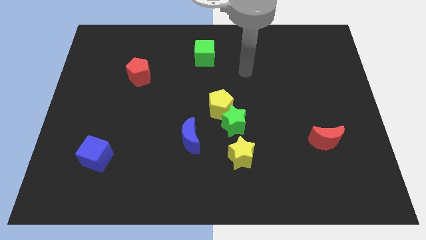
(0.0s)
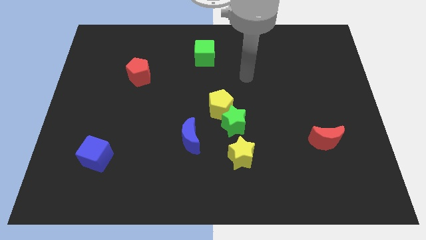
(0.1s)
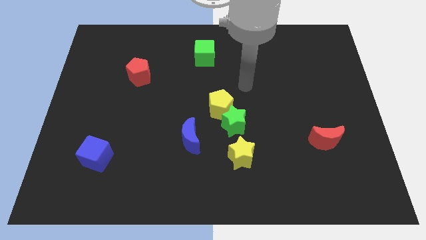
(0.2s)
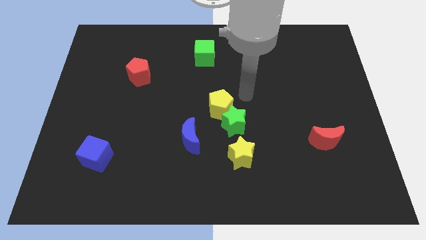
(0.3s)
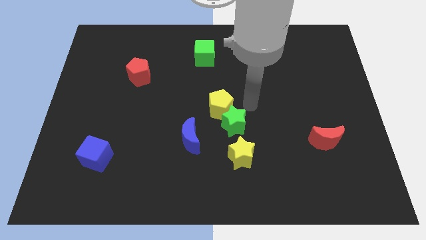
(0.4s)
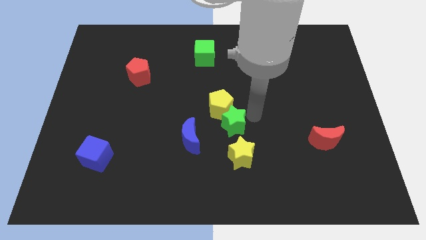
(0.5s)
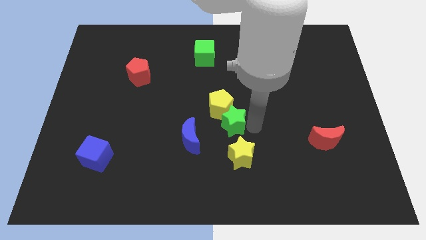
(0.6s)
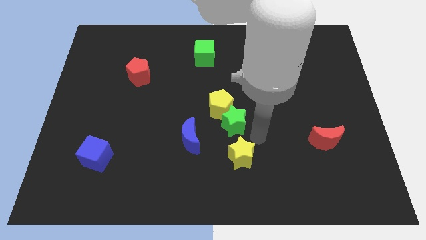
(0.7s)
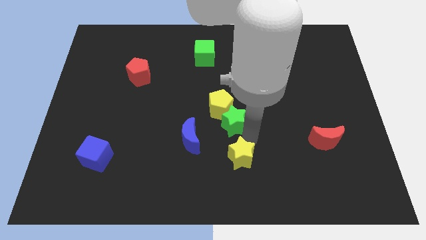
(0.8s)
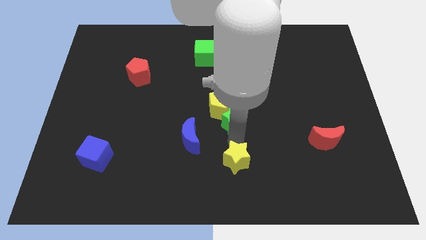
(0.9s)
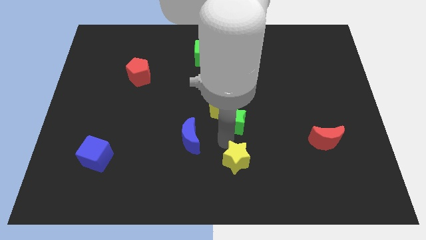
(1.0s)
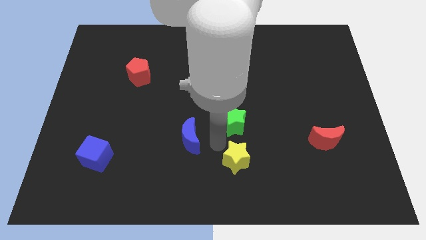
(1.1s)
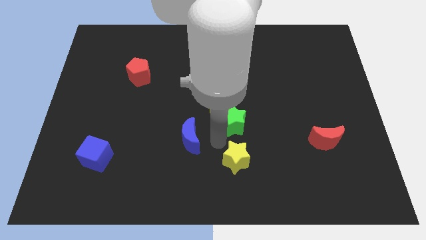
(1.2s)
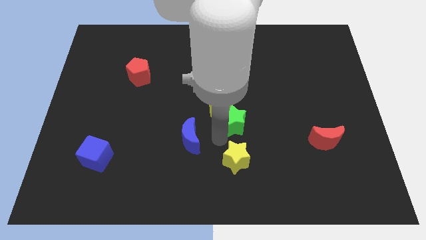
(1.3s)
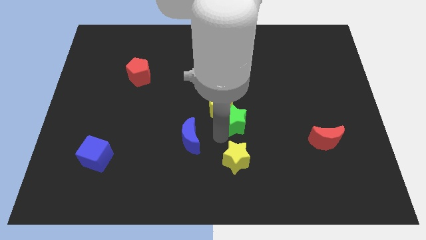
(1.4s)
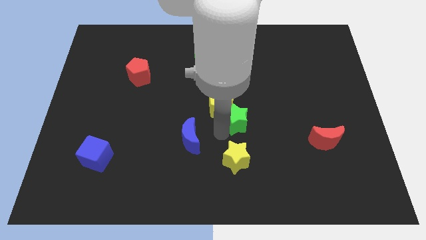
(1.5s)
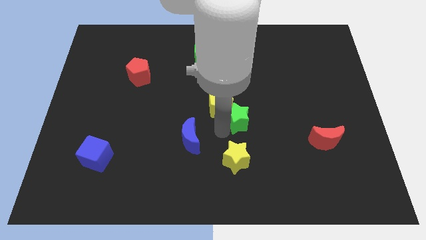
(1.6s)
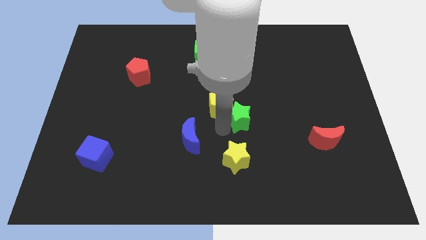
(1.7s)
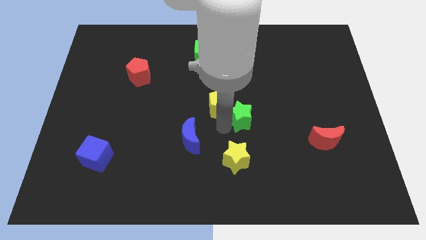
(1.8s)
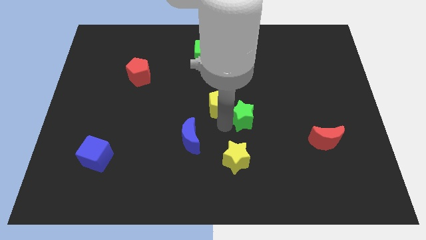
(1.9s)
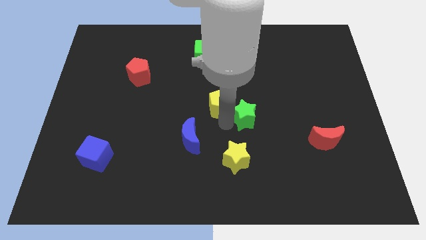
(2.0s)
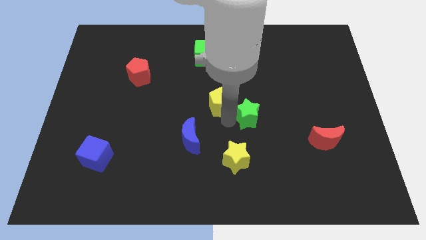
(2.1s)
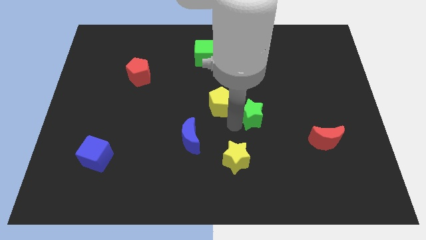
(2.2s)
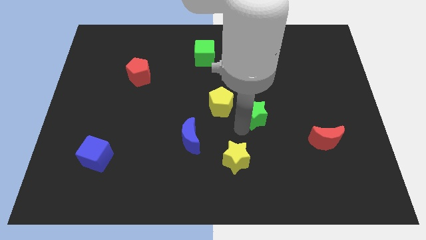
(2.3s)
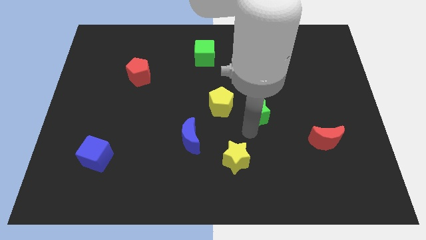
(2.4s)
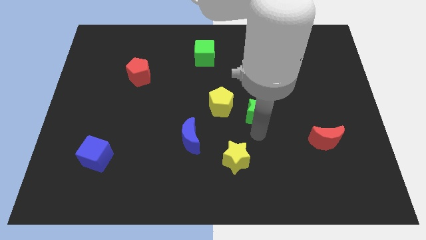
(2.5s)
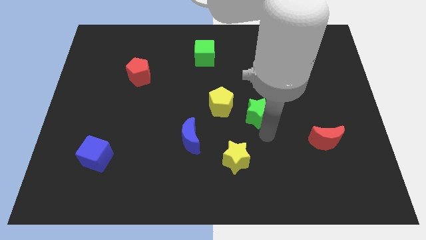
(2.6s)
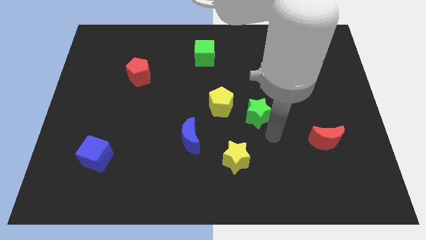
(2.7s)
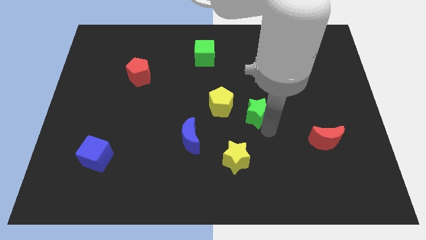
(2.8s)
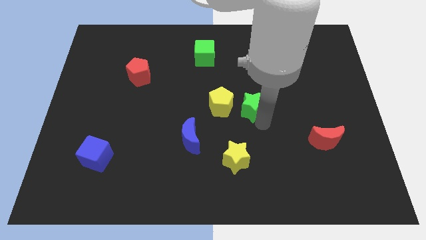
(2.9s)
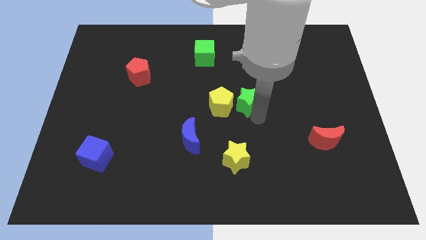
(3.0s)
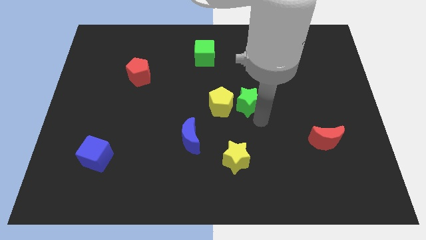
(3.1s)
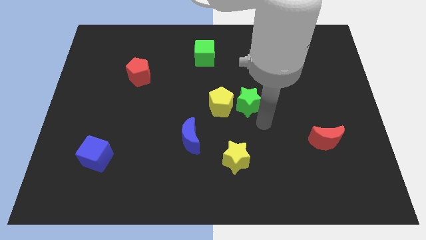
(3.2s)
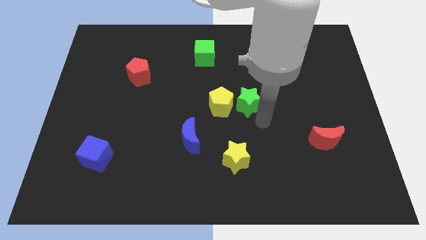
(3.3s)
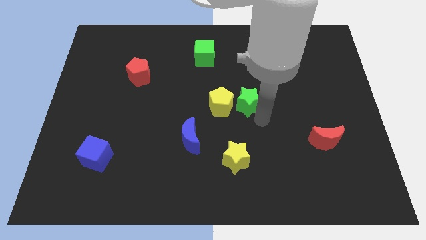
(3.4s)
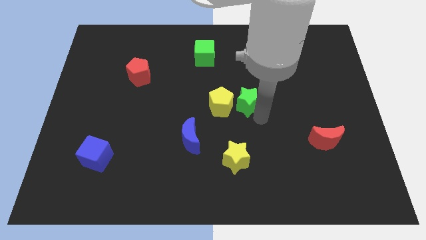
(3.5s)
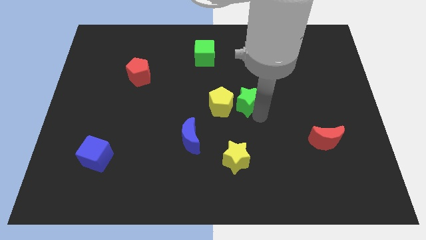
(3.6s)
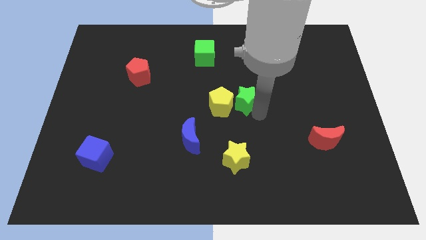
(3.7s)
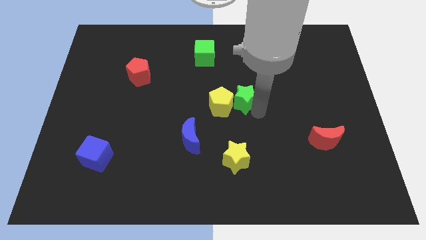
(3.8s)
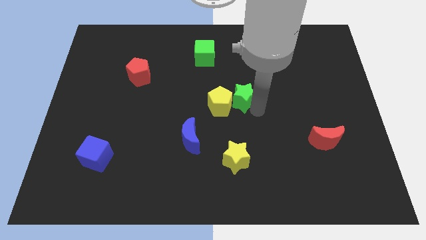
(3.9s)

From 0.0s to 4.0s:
slightly push the green star up

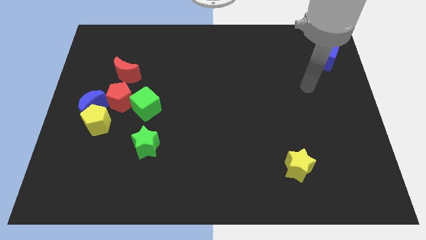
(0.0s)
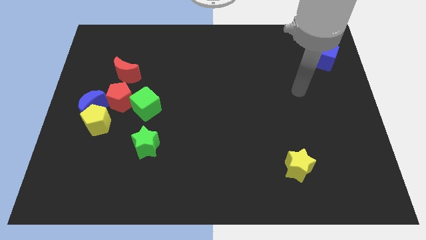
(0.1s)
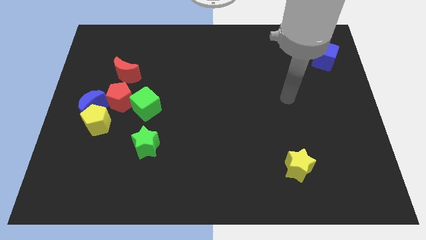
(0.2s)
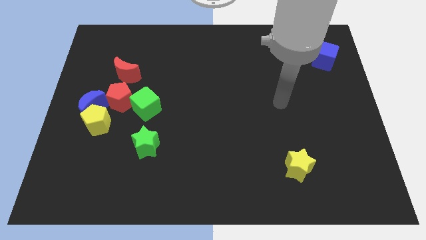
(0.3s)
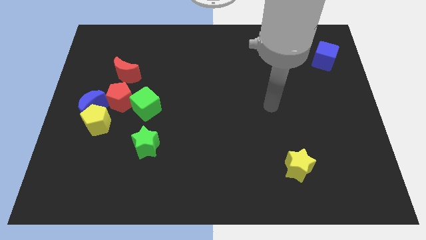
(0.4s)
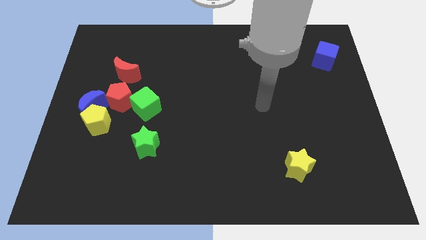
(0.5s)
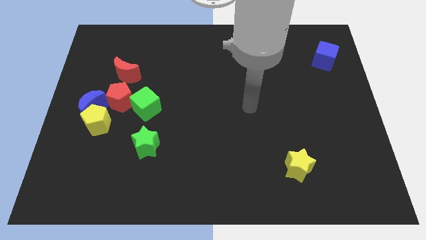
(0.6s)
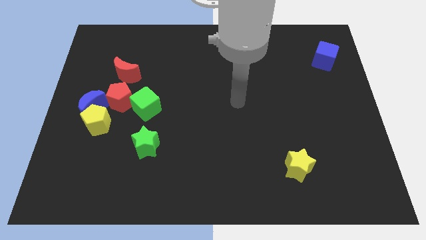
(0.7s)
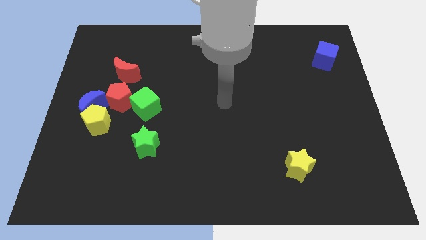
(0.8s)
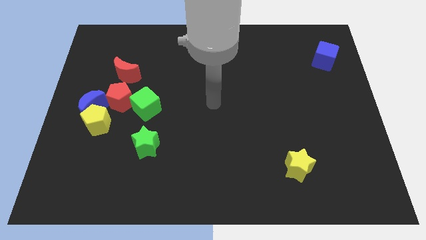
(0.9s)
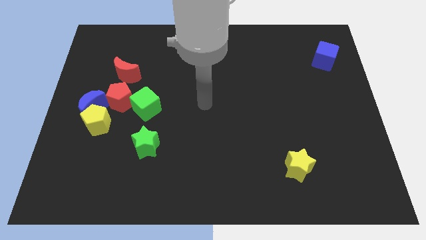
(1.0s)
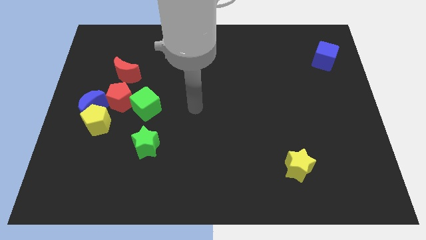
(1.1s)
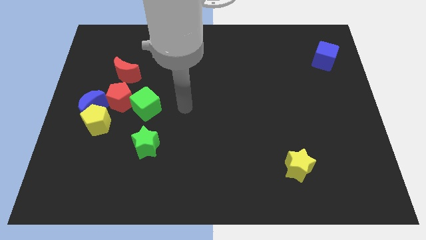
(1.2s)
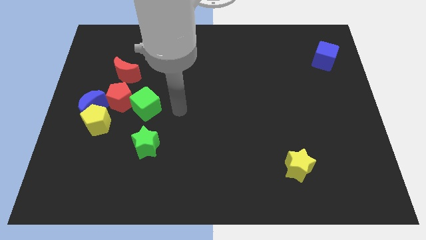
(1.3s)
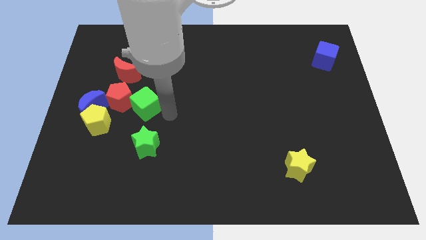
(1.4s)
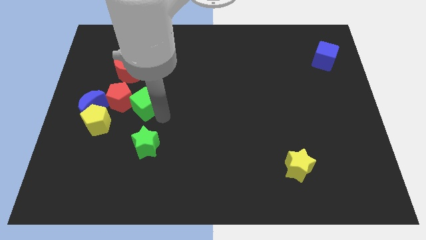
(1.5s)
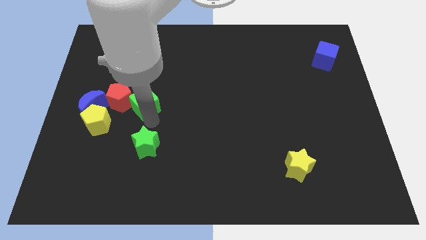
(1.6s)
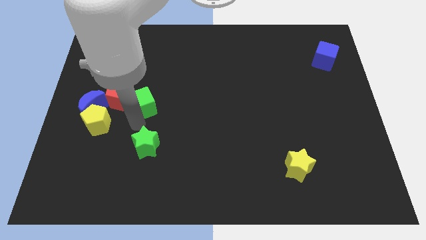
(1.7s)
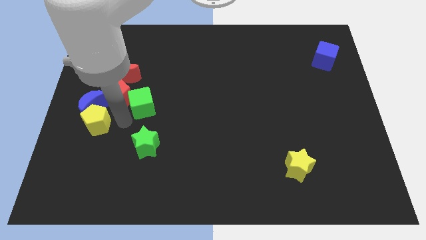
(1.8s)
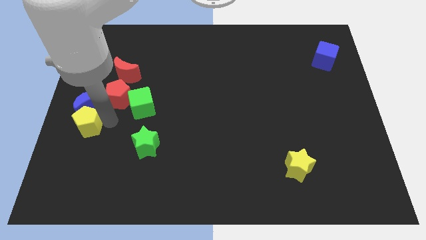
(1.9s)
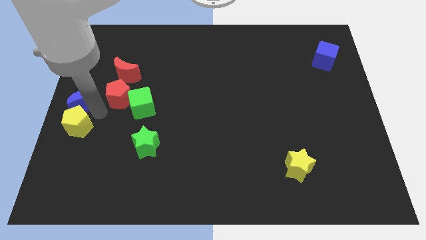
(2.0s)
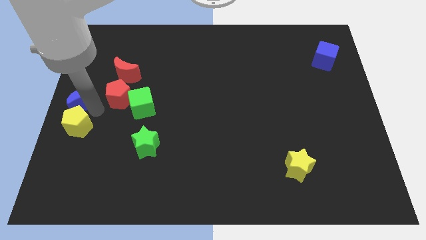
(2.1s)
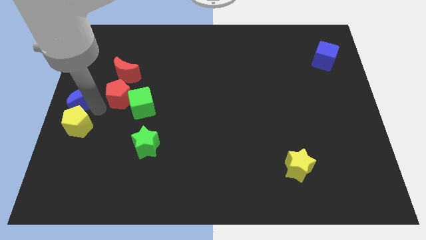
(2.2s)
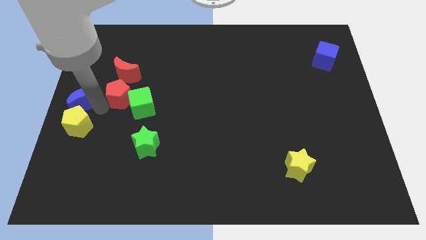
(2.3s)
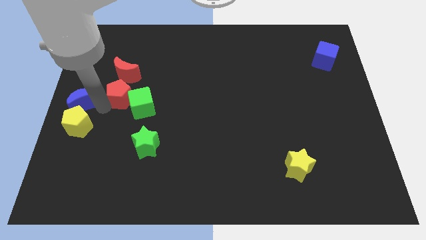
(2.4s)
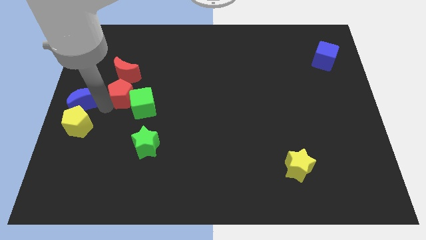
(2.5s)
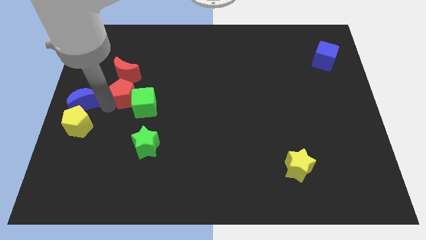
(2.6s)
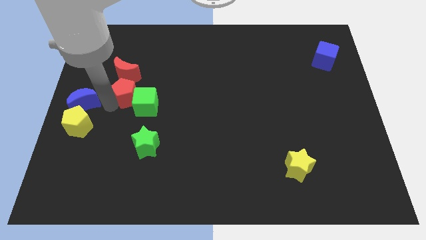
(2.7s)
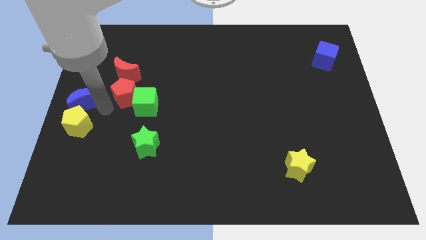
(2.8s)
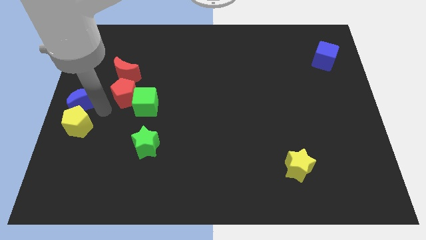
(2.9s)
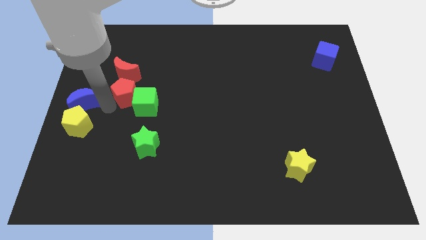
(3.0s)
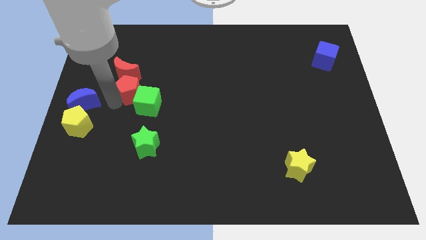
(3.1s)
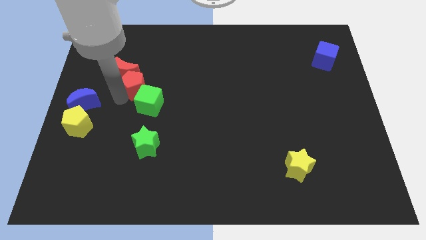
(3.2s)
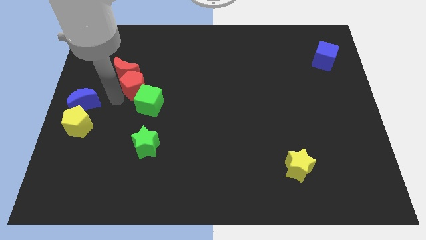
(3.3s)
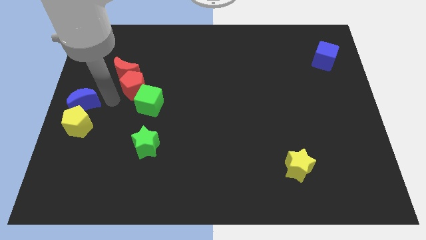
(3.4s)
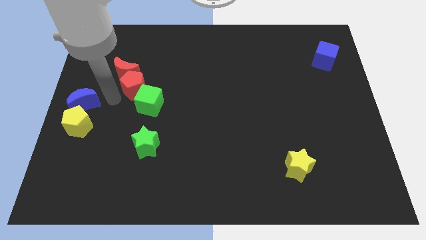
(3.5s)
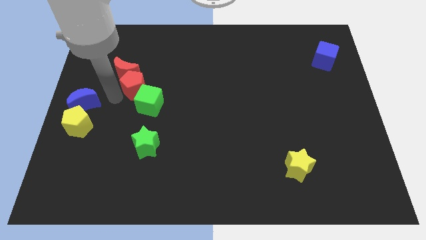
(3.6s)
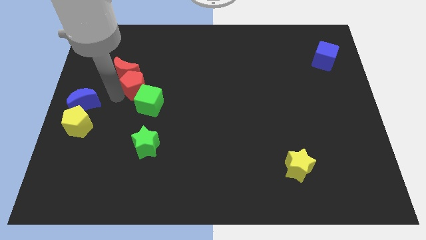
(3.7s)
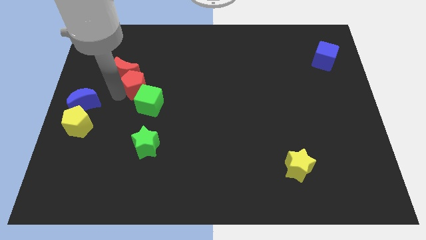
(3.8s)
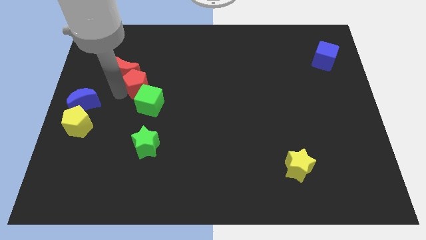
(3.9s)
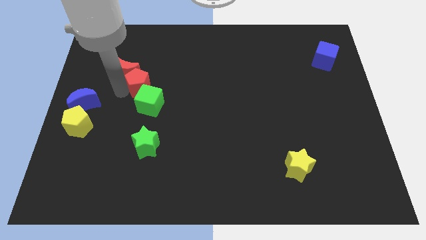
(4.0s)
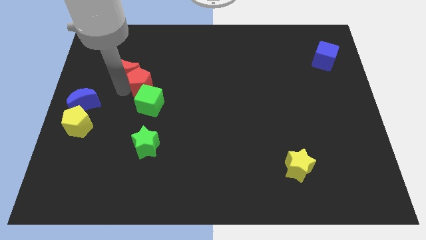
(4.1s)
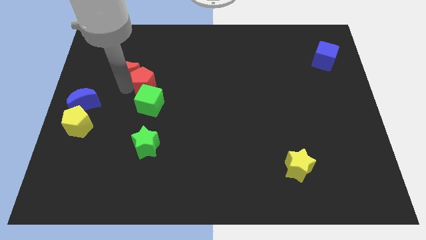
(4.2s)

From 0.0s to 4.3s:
push the red pentagon somewhat upwards and to the right
